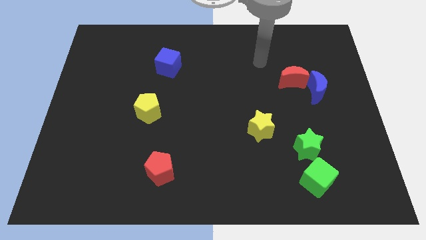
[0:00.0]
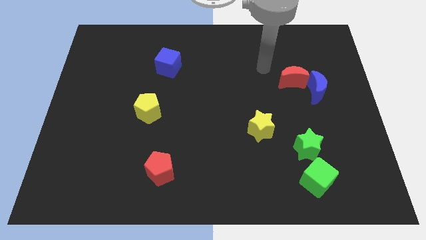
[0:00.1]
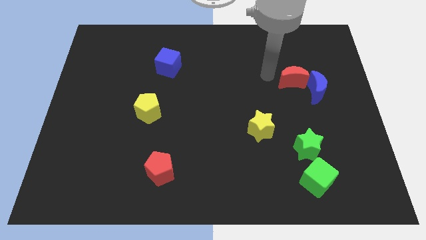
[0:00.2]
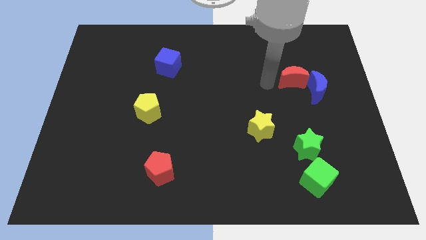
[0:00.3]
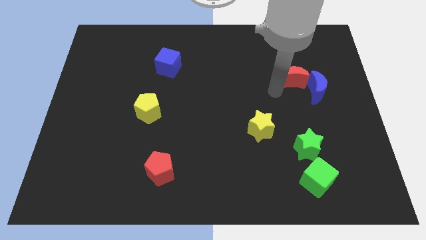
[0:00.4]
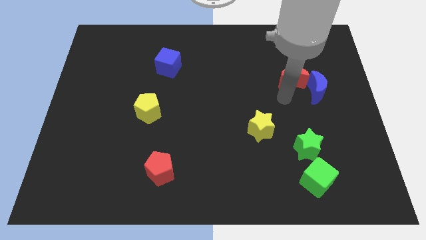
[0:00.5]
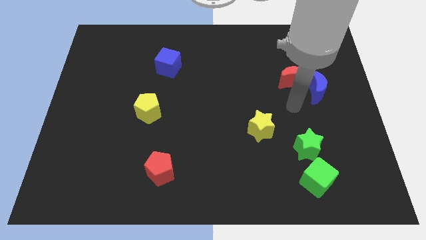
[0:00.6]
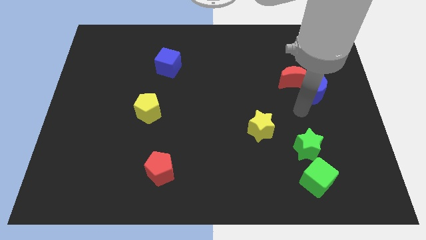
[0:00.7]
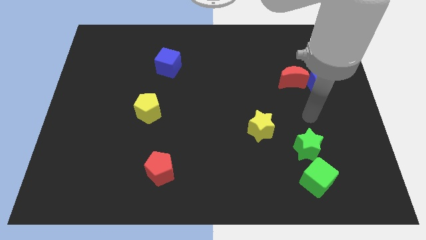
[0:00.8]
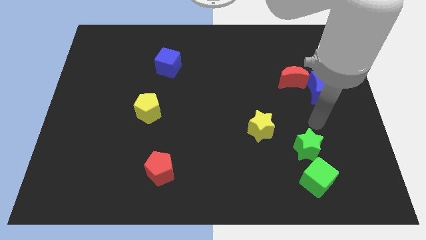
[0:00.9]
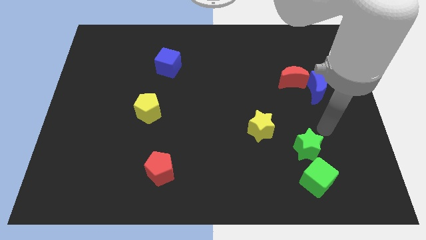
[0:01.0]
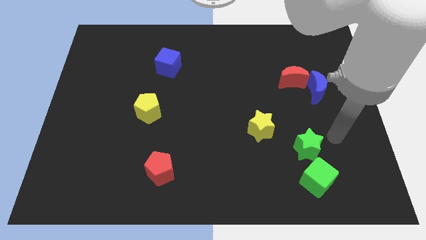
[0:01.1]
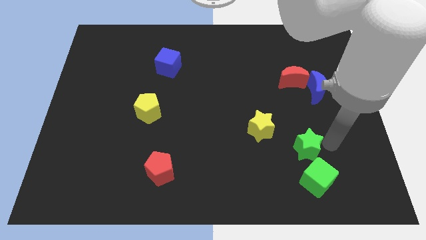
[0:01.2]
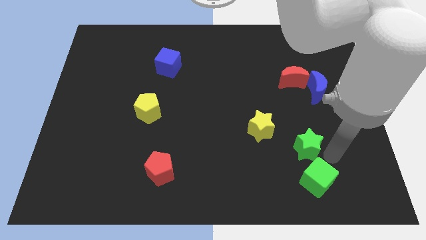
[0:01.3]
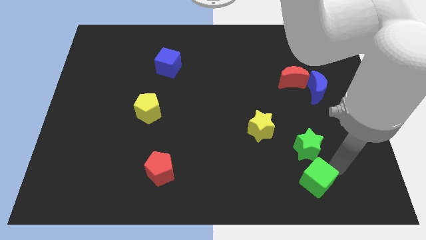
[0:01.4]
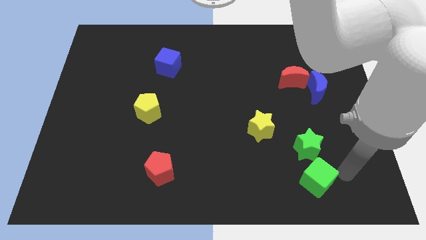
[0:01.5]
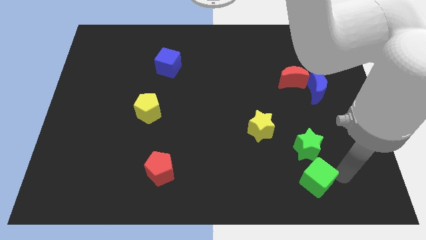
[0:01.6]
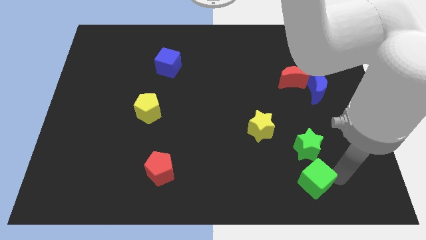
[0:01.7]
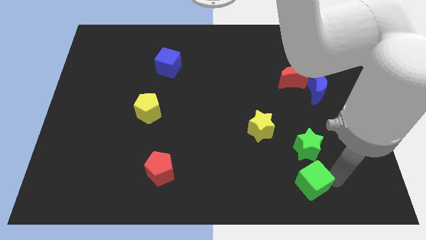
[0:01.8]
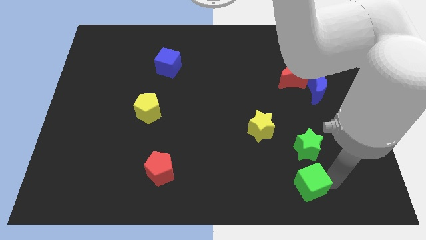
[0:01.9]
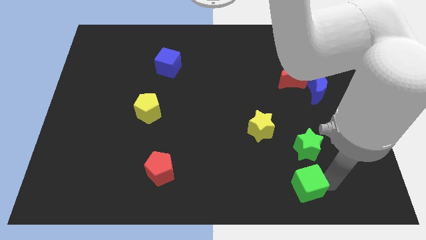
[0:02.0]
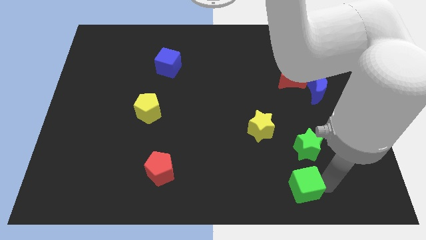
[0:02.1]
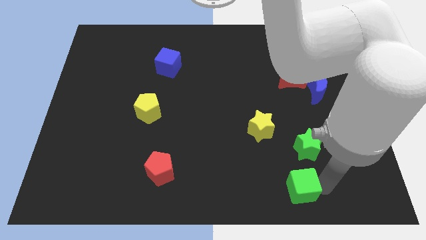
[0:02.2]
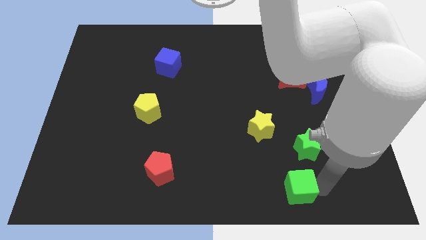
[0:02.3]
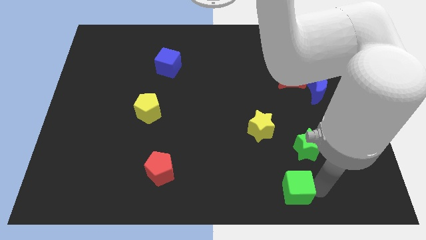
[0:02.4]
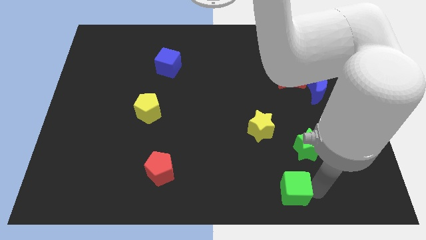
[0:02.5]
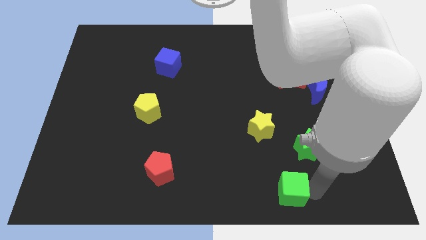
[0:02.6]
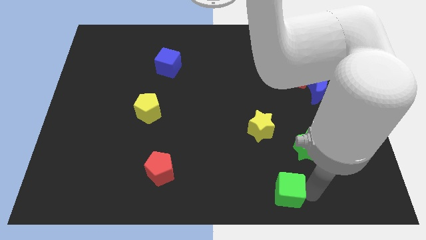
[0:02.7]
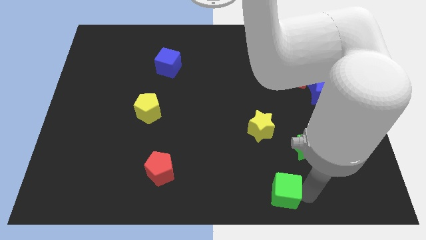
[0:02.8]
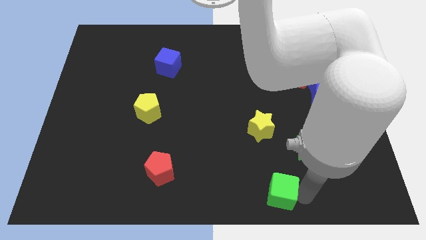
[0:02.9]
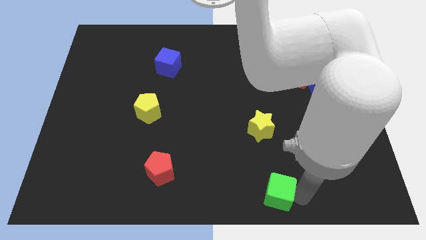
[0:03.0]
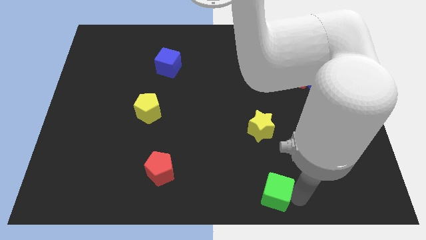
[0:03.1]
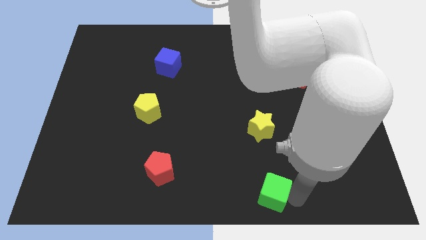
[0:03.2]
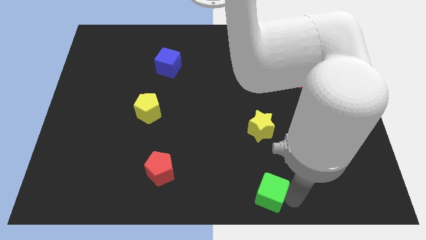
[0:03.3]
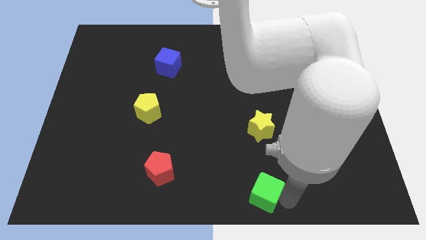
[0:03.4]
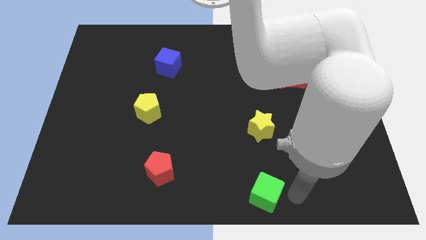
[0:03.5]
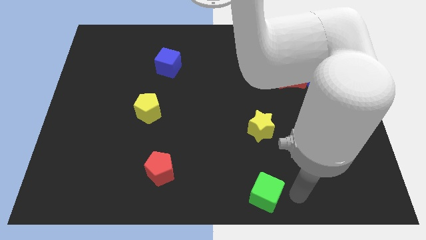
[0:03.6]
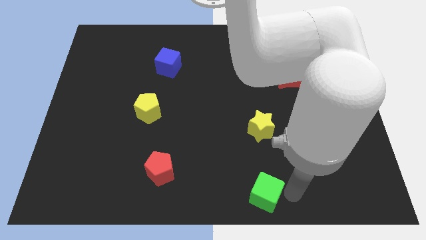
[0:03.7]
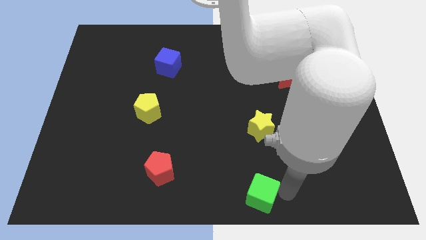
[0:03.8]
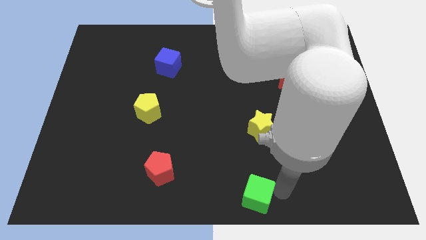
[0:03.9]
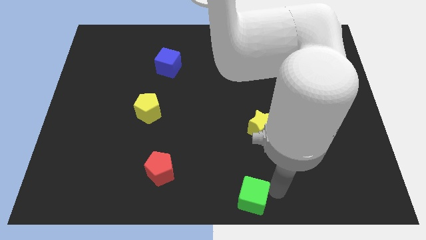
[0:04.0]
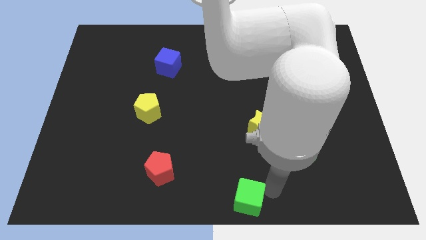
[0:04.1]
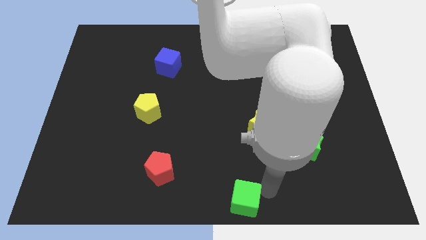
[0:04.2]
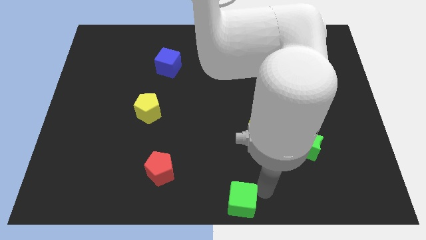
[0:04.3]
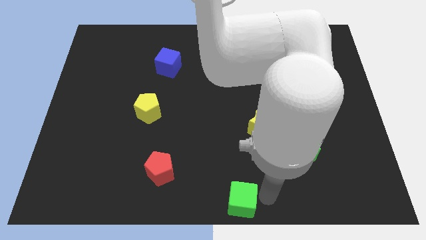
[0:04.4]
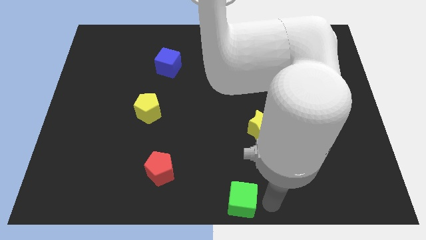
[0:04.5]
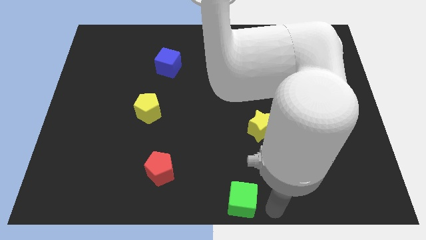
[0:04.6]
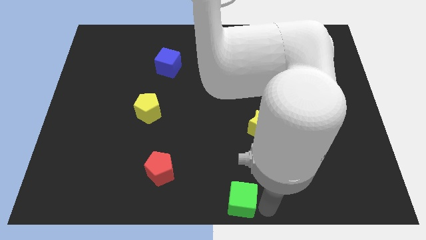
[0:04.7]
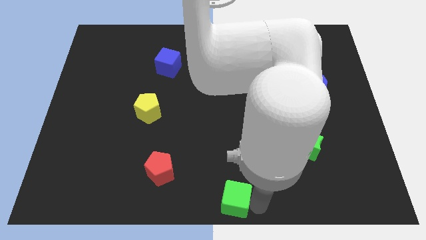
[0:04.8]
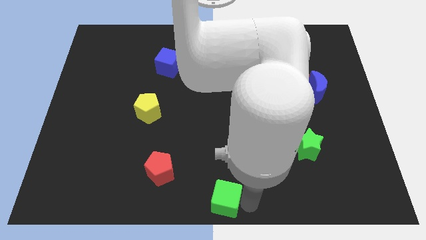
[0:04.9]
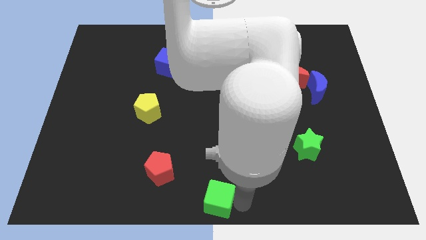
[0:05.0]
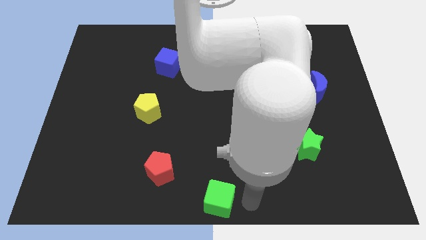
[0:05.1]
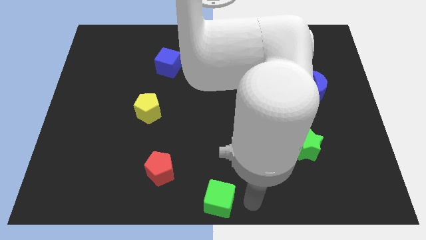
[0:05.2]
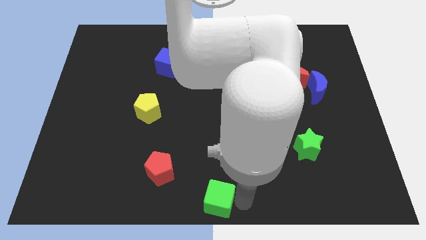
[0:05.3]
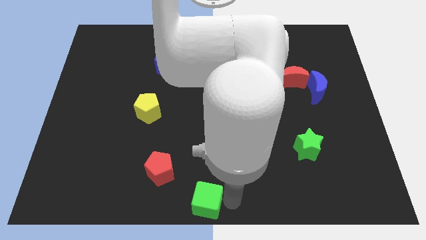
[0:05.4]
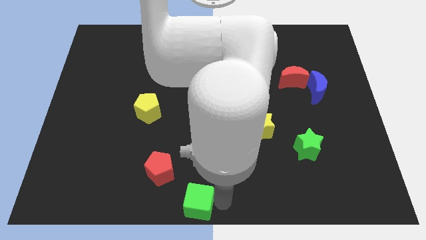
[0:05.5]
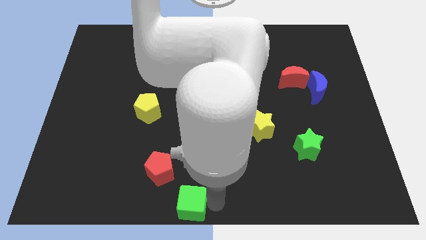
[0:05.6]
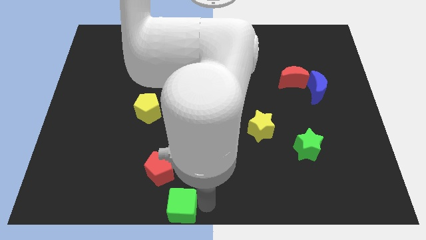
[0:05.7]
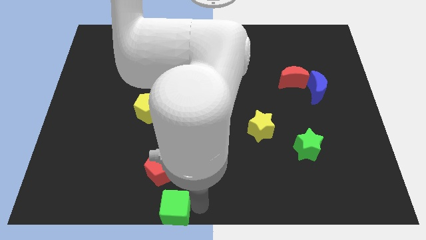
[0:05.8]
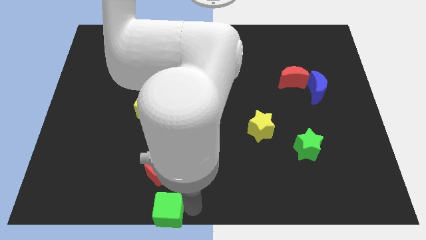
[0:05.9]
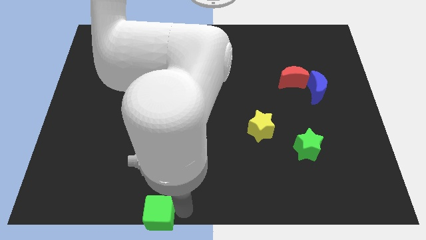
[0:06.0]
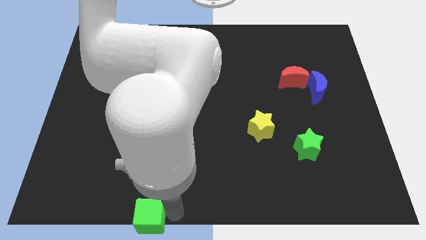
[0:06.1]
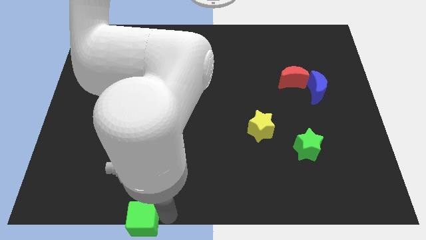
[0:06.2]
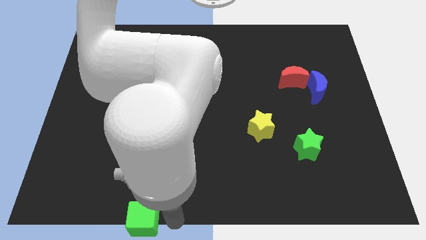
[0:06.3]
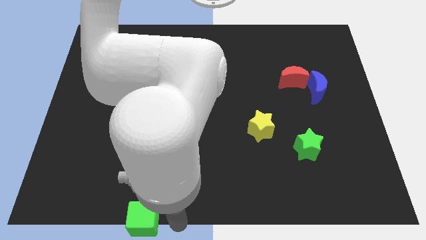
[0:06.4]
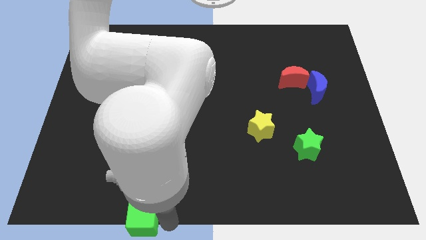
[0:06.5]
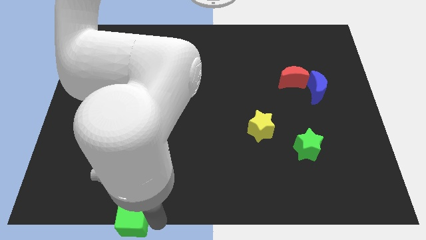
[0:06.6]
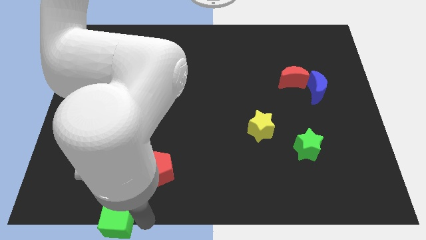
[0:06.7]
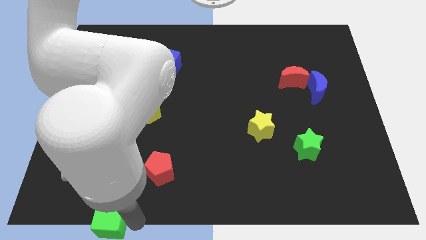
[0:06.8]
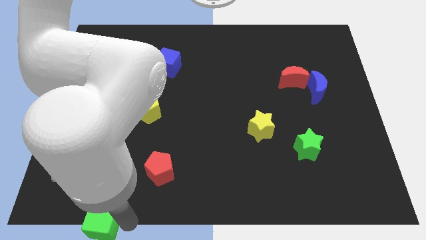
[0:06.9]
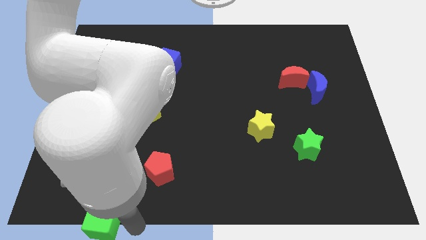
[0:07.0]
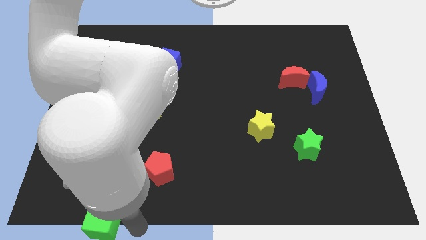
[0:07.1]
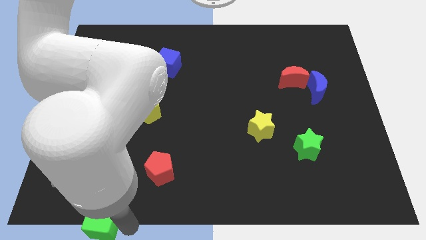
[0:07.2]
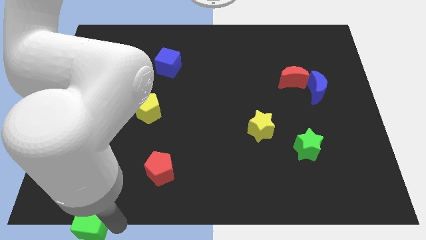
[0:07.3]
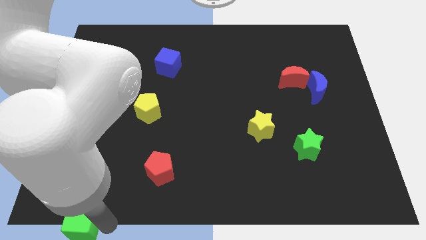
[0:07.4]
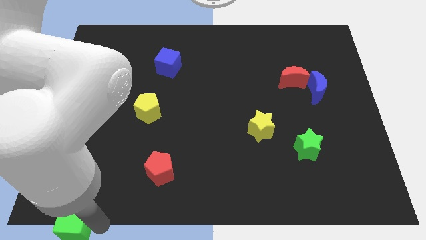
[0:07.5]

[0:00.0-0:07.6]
push the green cube to the bottom left
